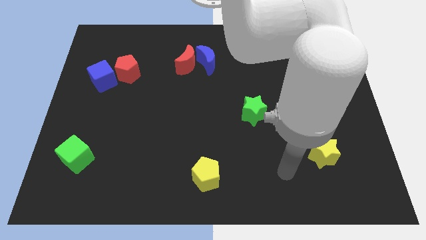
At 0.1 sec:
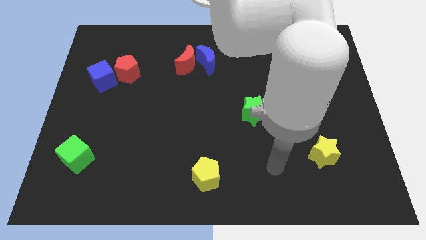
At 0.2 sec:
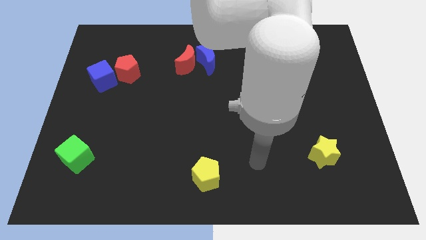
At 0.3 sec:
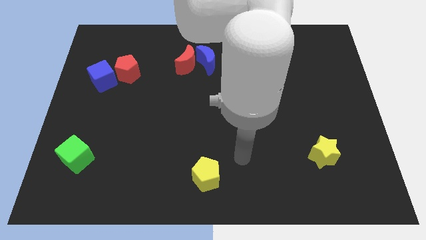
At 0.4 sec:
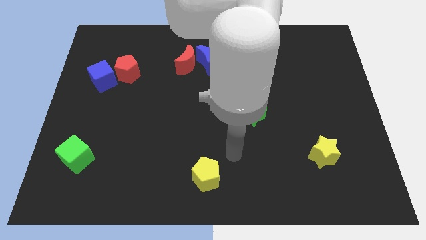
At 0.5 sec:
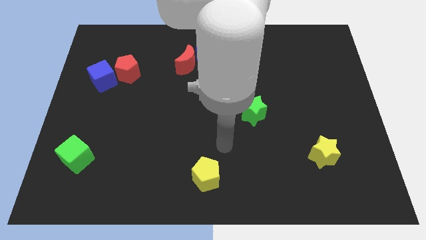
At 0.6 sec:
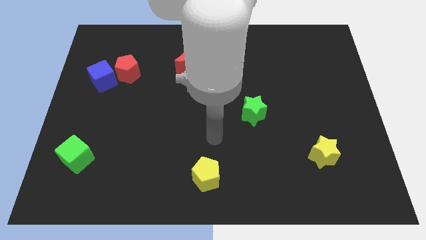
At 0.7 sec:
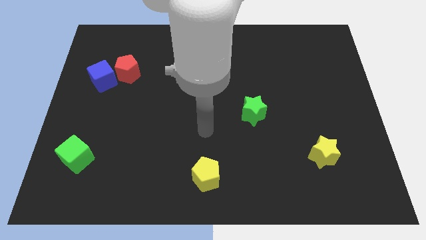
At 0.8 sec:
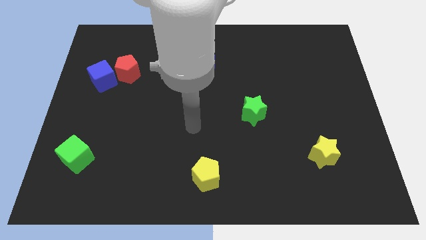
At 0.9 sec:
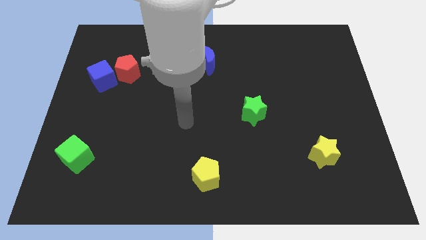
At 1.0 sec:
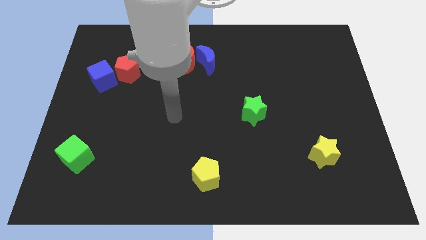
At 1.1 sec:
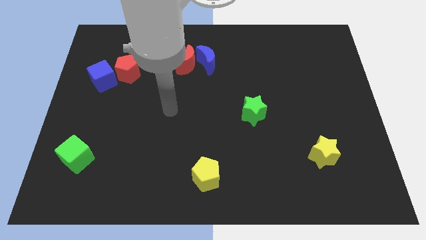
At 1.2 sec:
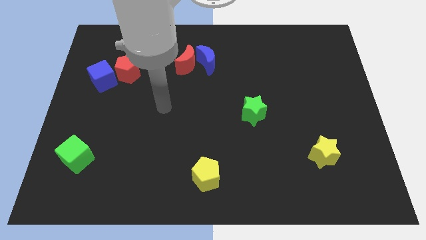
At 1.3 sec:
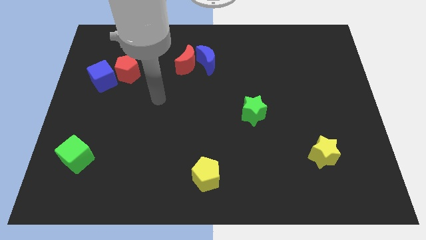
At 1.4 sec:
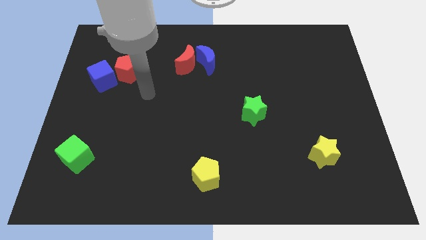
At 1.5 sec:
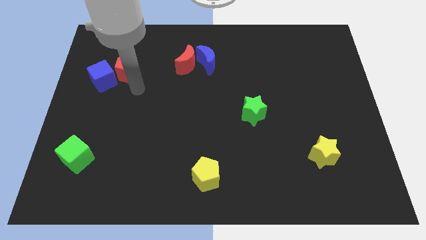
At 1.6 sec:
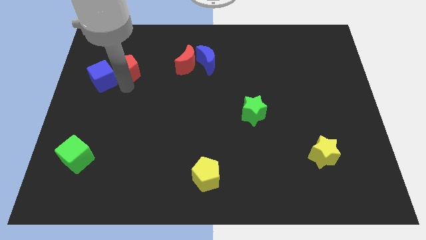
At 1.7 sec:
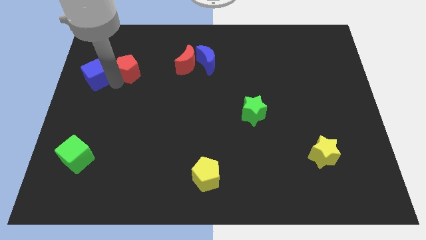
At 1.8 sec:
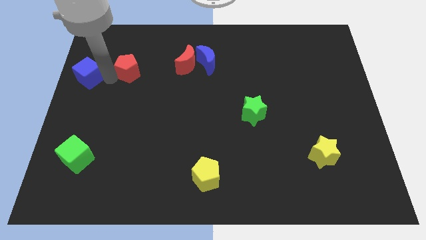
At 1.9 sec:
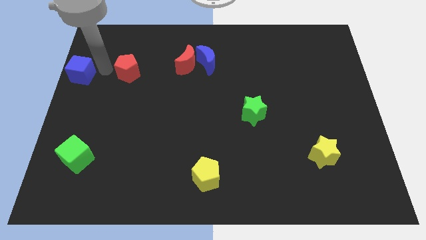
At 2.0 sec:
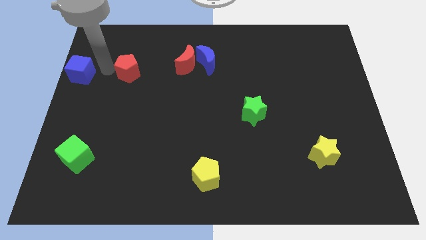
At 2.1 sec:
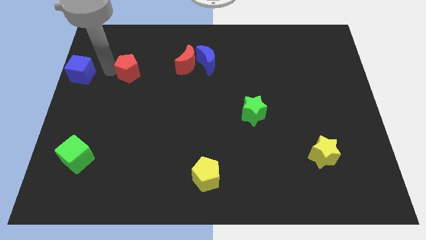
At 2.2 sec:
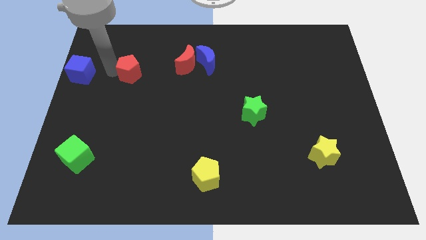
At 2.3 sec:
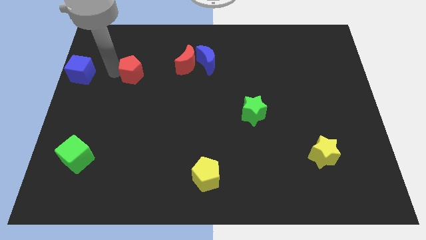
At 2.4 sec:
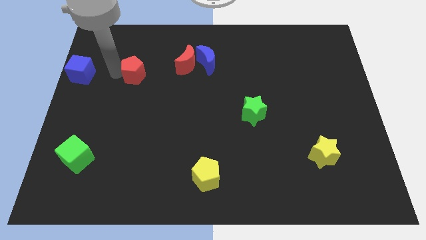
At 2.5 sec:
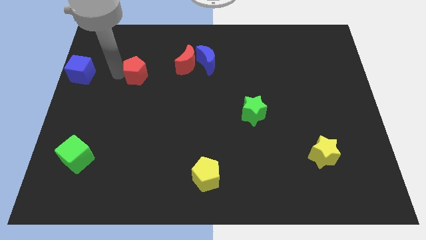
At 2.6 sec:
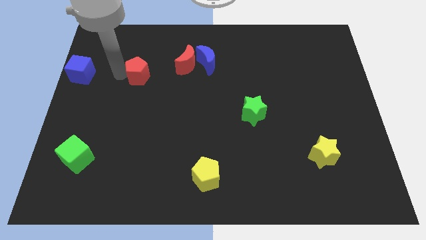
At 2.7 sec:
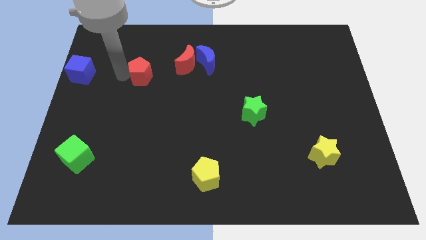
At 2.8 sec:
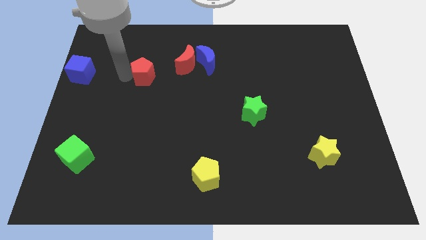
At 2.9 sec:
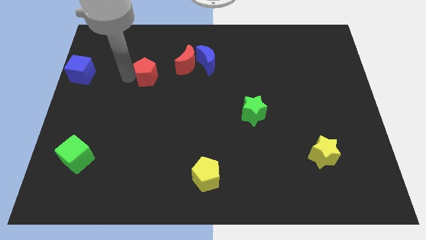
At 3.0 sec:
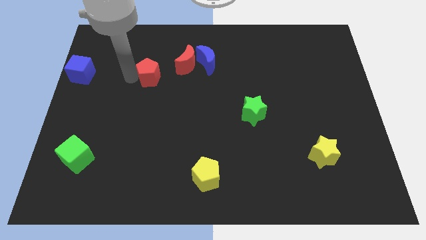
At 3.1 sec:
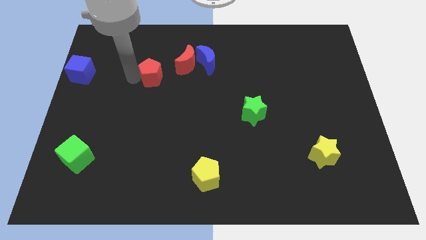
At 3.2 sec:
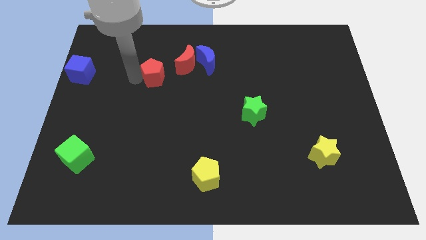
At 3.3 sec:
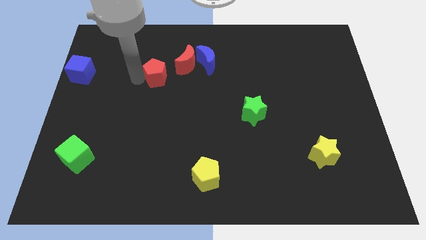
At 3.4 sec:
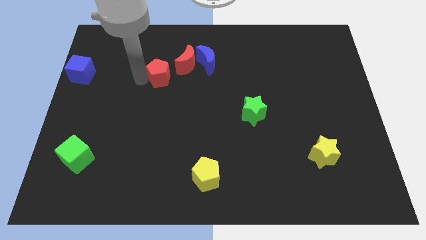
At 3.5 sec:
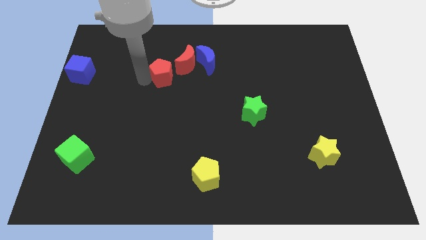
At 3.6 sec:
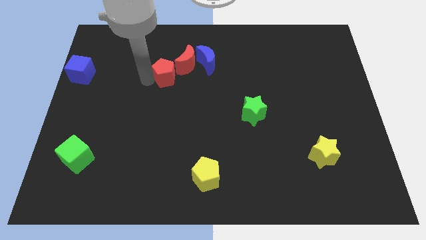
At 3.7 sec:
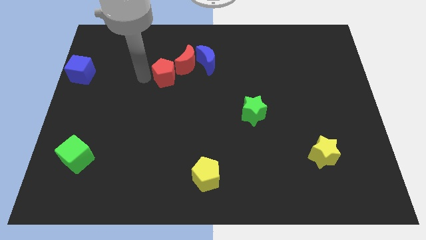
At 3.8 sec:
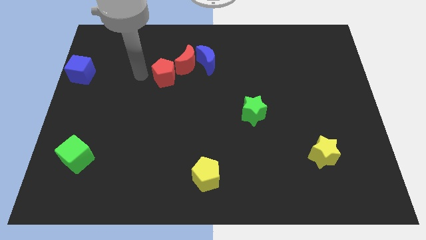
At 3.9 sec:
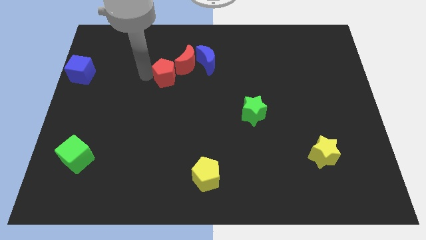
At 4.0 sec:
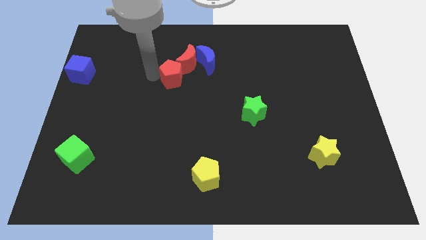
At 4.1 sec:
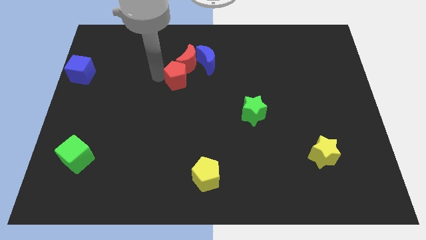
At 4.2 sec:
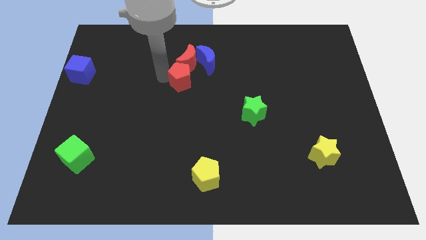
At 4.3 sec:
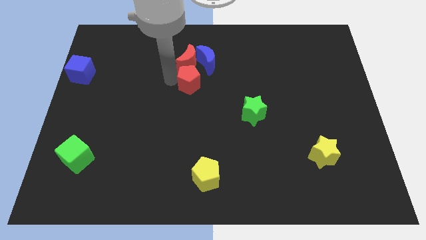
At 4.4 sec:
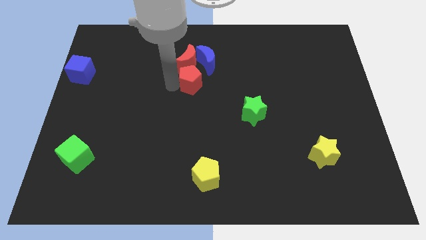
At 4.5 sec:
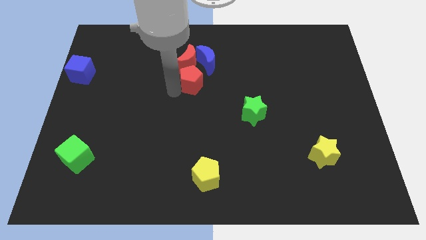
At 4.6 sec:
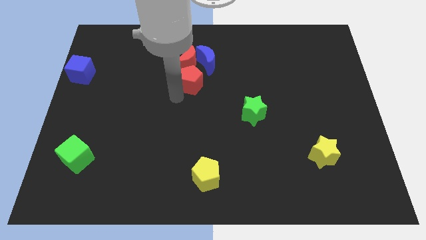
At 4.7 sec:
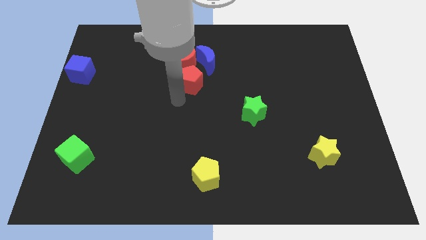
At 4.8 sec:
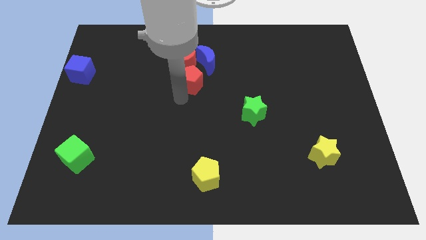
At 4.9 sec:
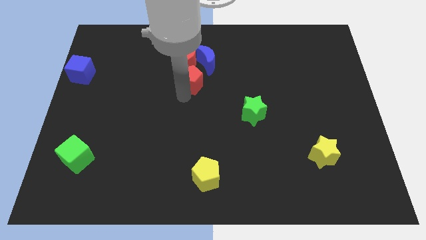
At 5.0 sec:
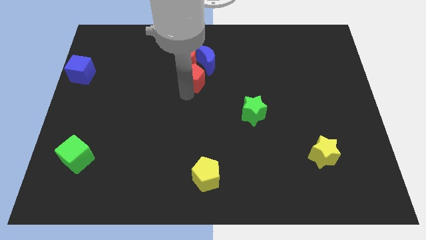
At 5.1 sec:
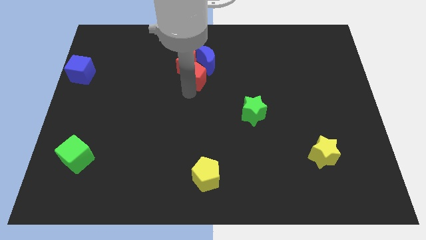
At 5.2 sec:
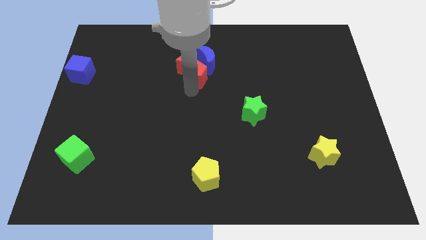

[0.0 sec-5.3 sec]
slide the red pentagon close to the blue moon

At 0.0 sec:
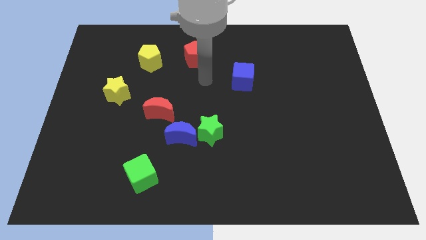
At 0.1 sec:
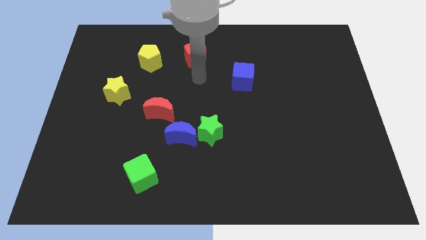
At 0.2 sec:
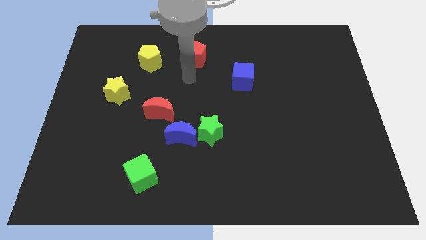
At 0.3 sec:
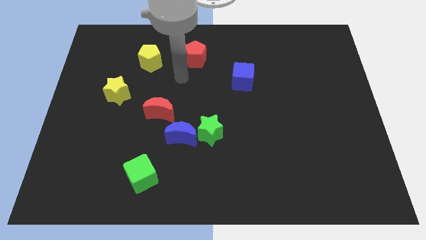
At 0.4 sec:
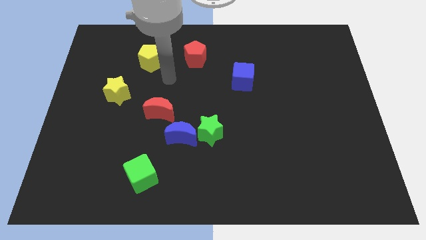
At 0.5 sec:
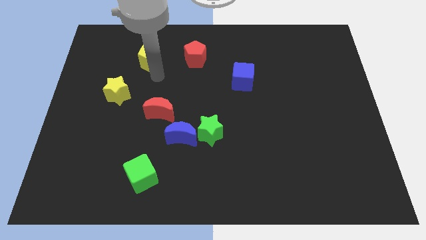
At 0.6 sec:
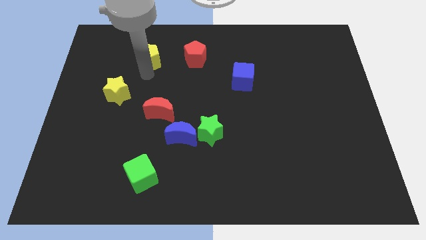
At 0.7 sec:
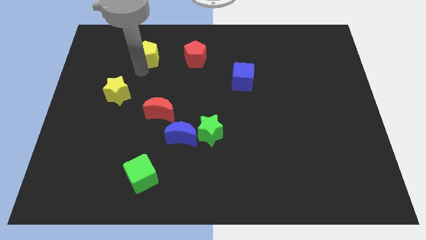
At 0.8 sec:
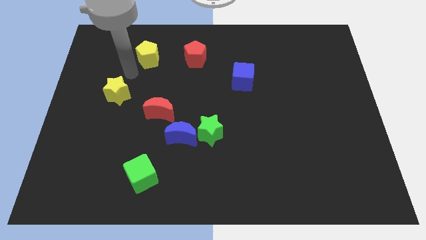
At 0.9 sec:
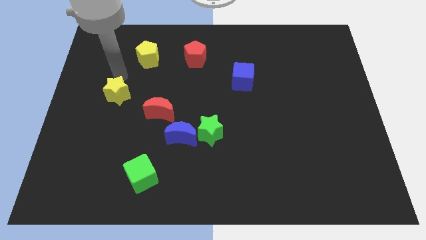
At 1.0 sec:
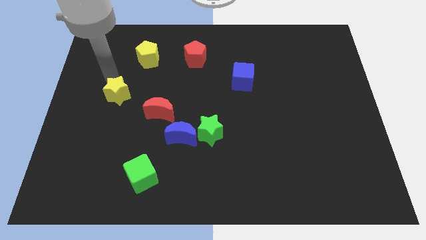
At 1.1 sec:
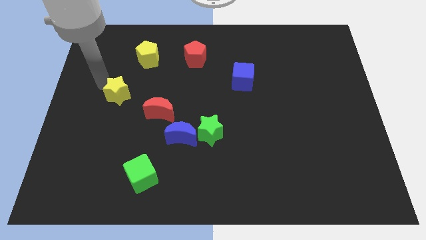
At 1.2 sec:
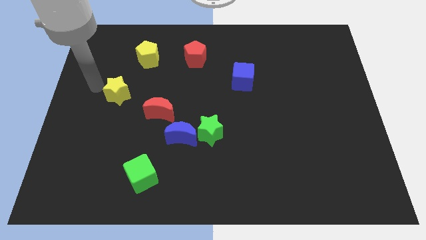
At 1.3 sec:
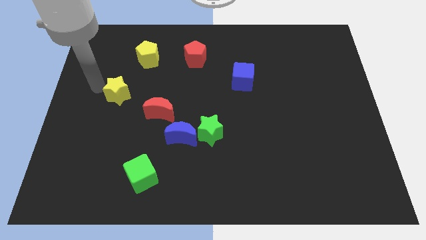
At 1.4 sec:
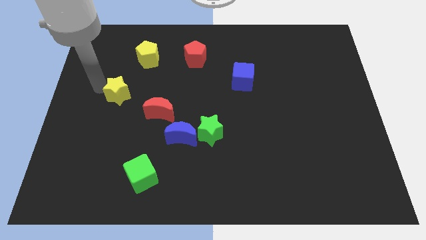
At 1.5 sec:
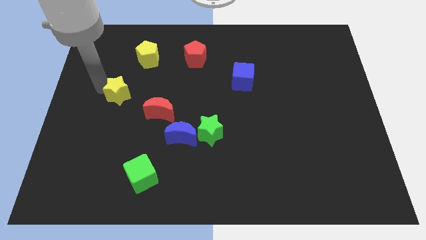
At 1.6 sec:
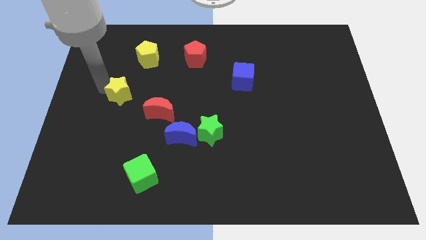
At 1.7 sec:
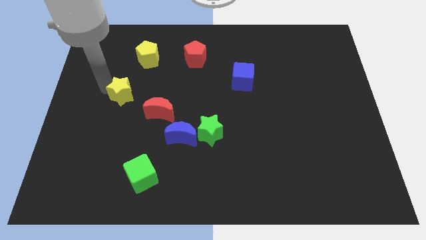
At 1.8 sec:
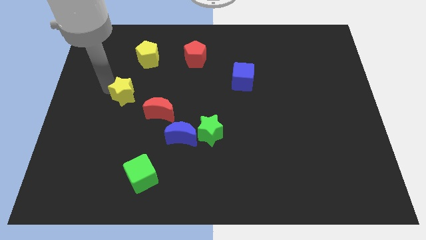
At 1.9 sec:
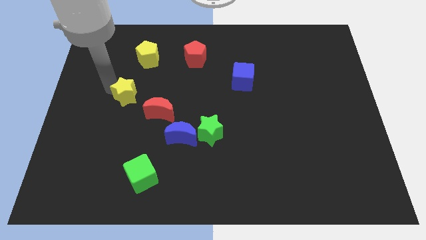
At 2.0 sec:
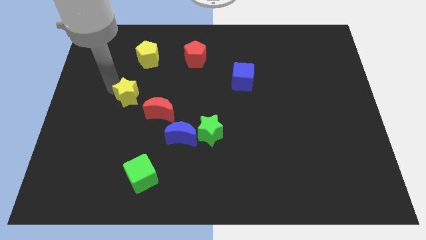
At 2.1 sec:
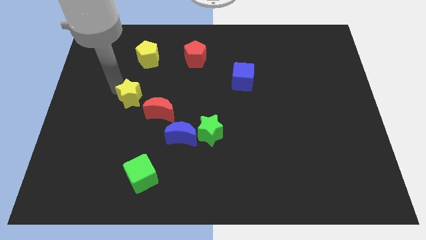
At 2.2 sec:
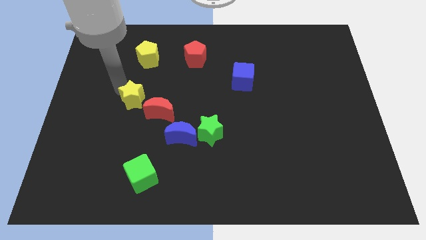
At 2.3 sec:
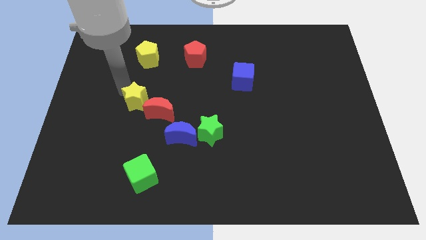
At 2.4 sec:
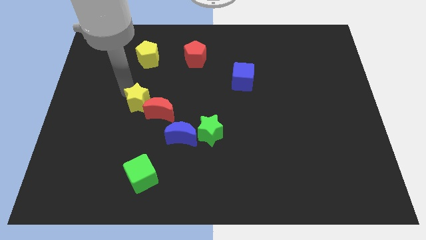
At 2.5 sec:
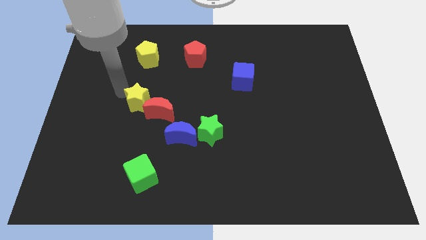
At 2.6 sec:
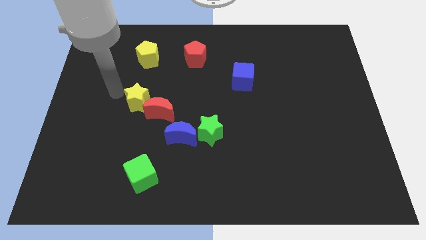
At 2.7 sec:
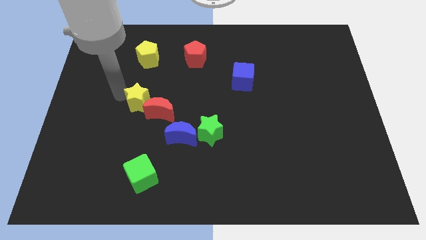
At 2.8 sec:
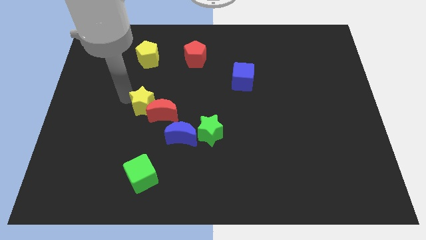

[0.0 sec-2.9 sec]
push the yellow star to the red moon
